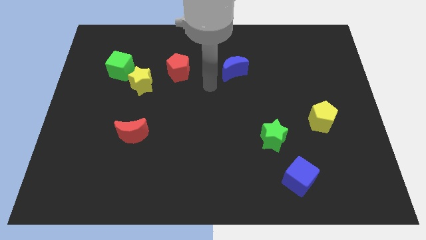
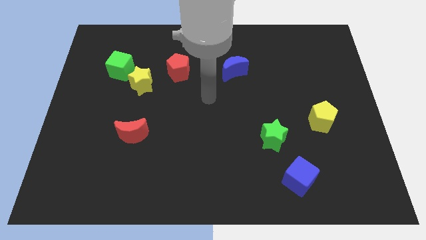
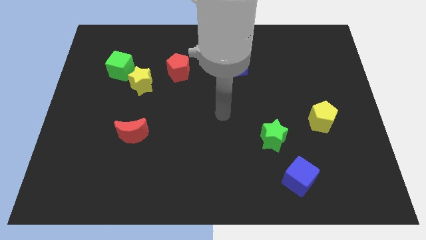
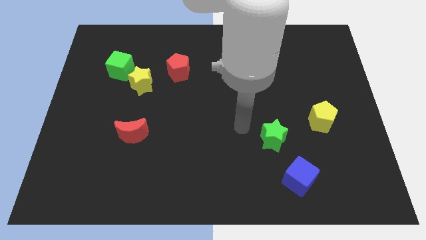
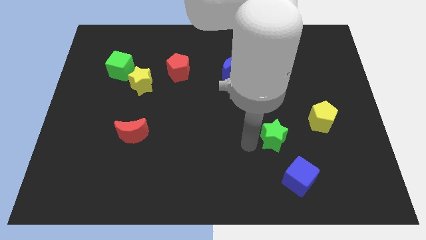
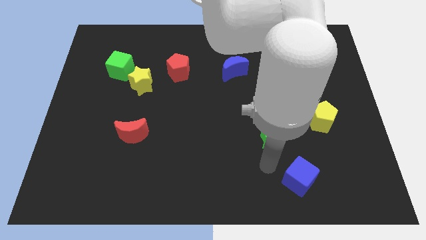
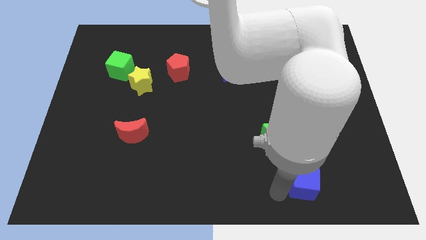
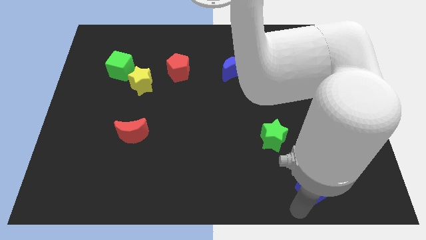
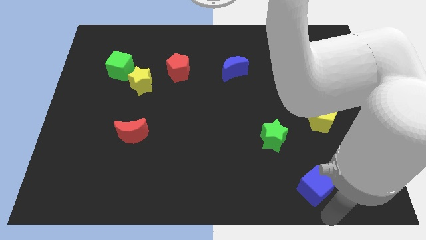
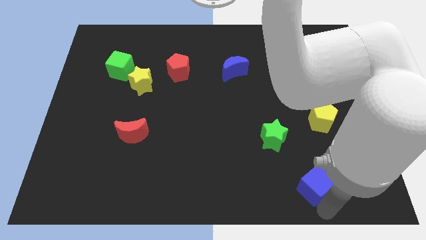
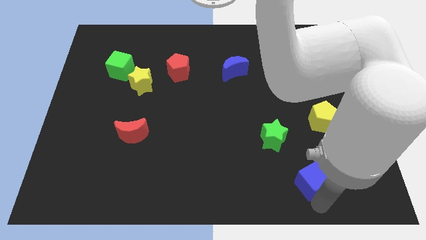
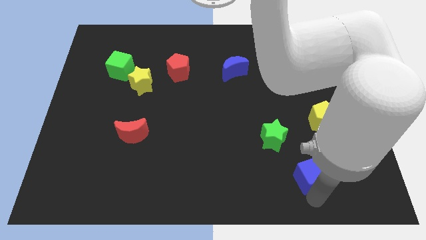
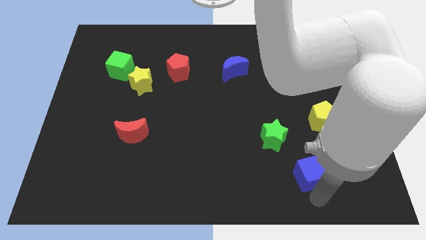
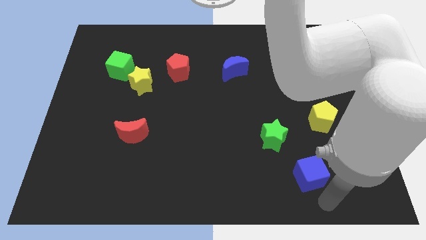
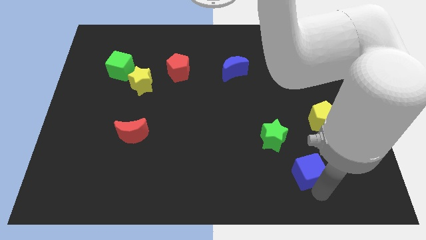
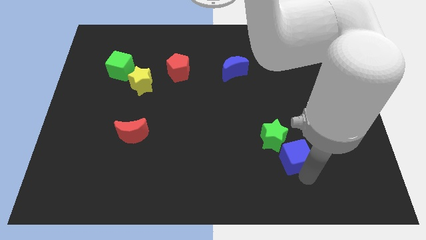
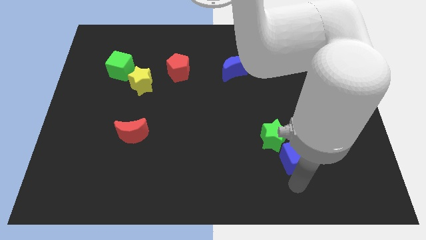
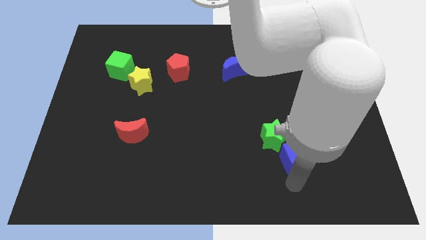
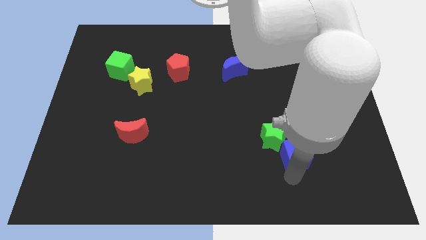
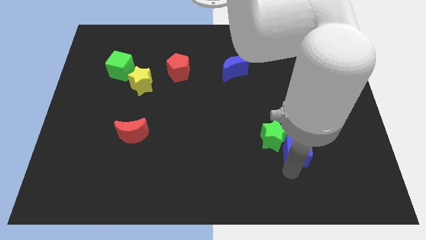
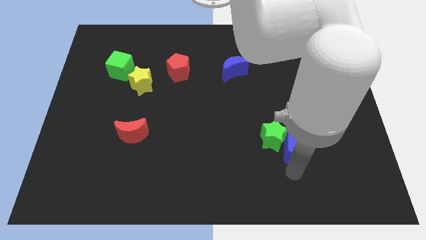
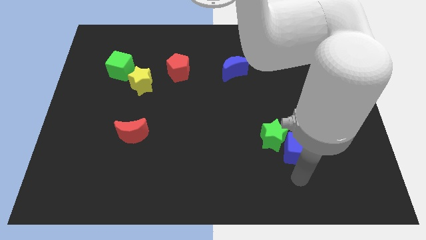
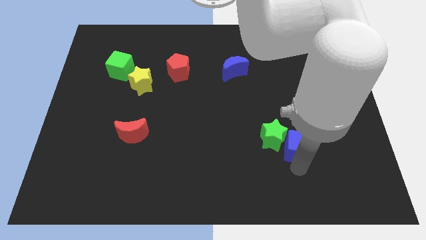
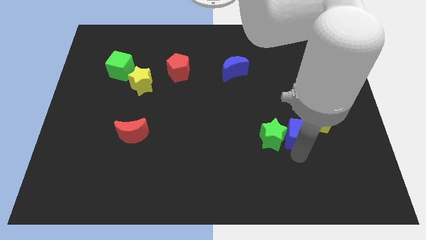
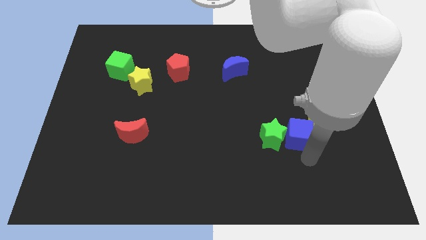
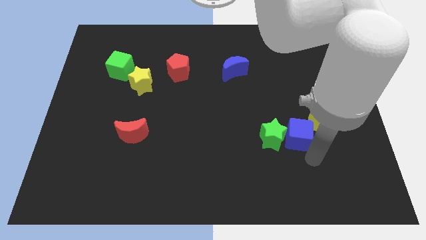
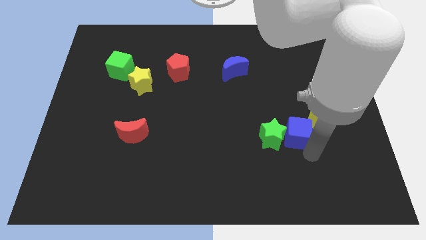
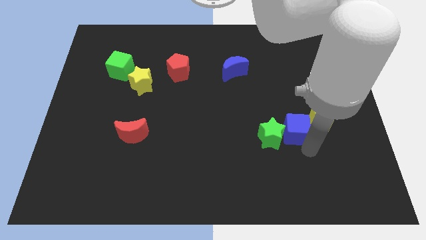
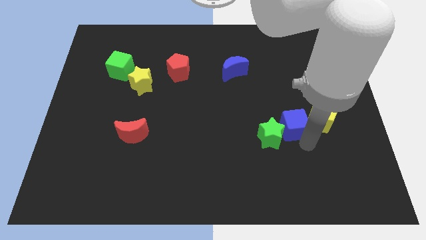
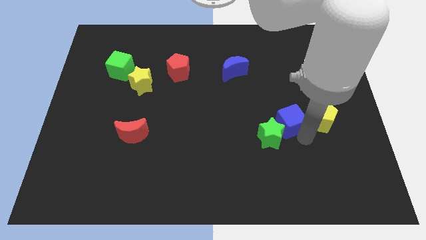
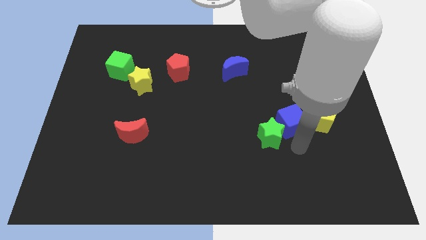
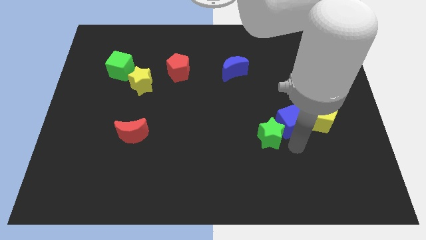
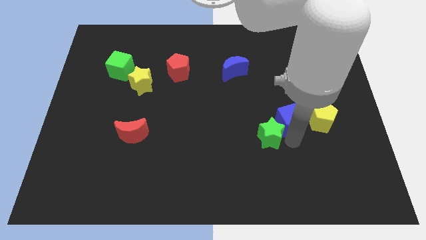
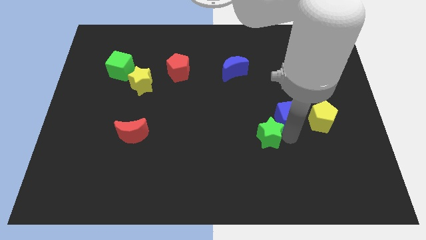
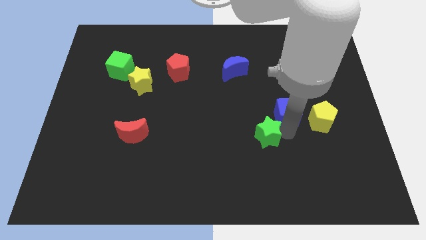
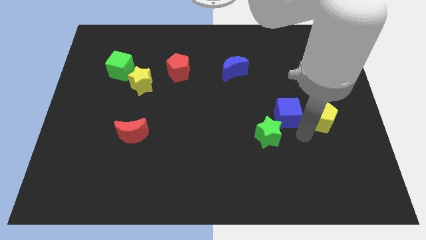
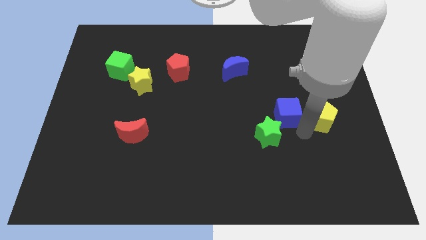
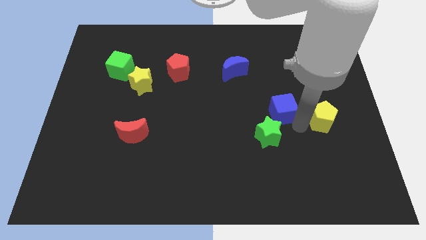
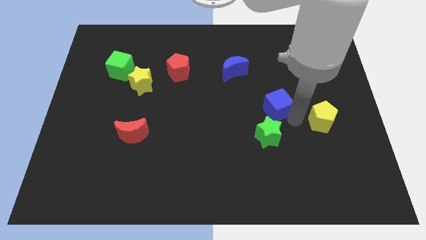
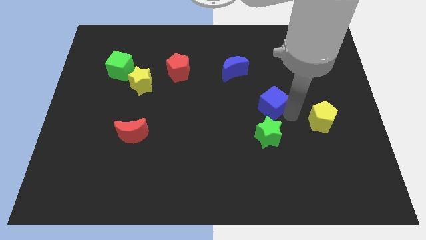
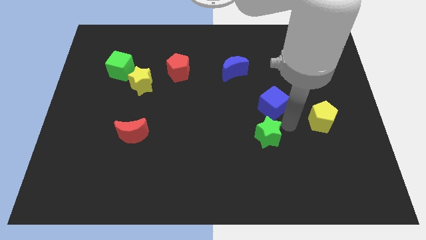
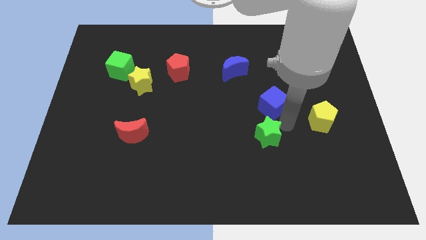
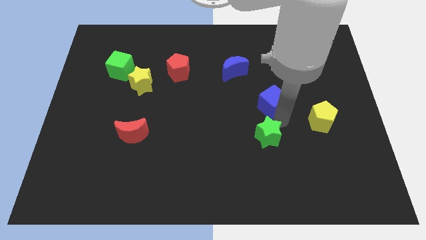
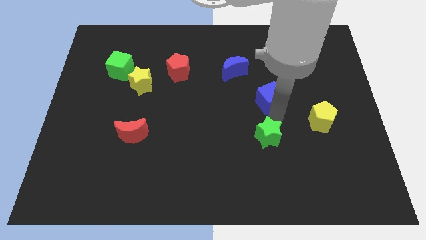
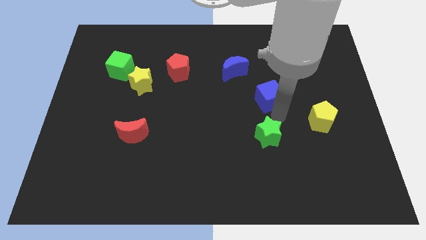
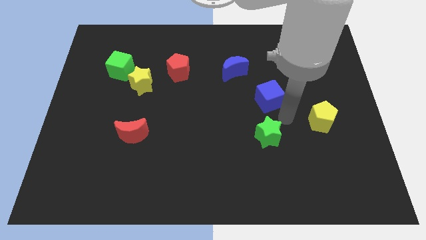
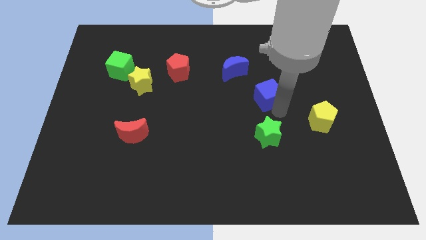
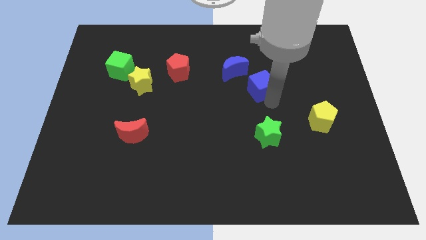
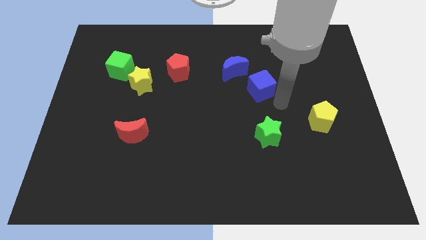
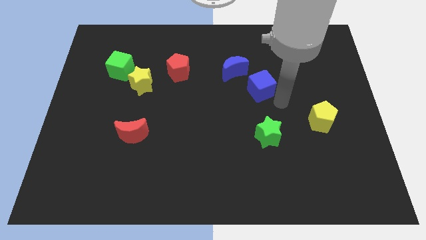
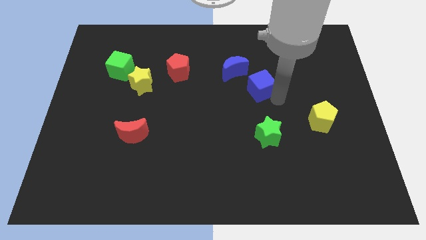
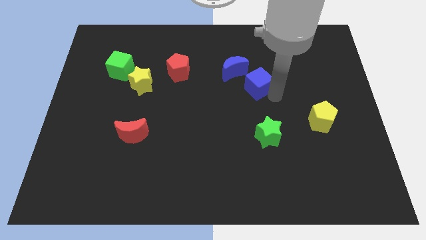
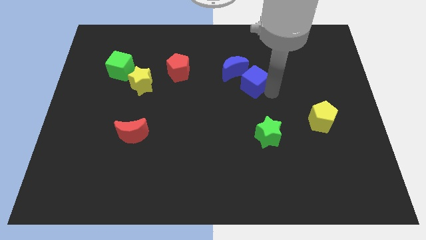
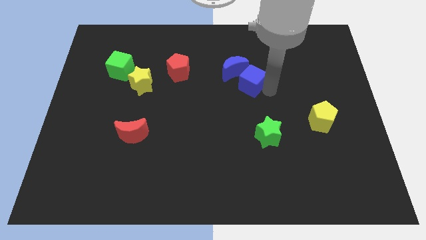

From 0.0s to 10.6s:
put the blue cube close to the blue moon

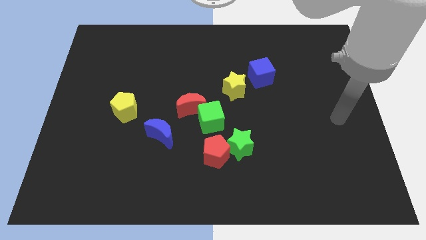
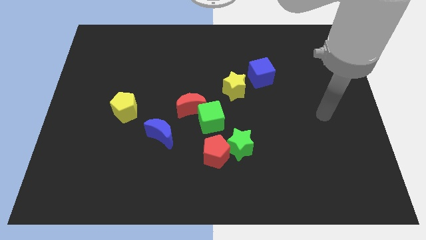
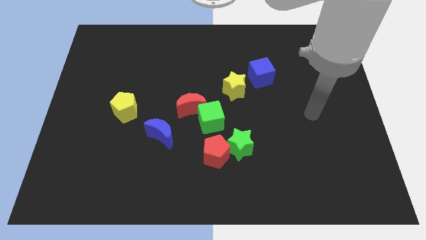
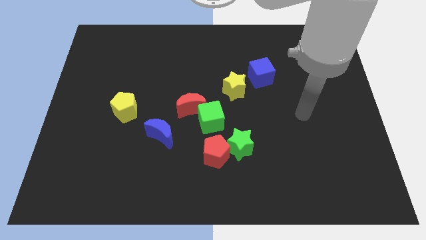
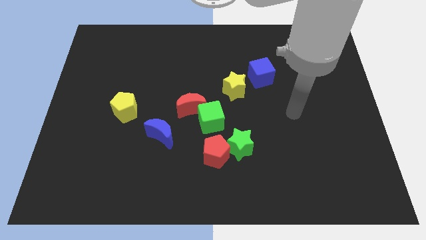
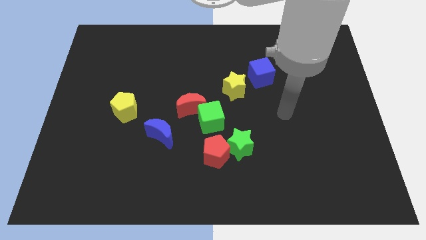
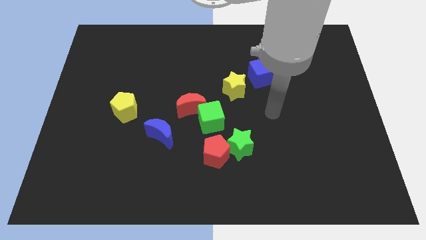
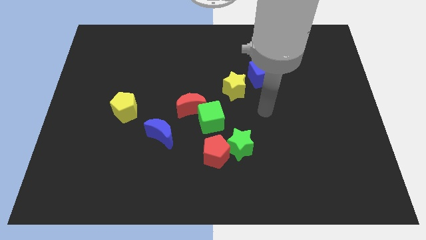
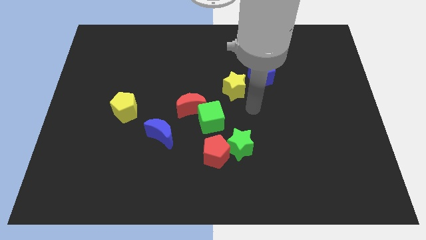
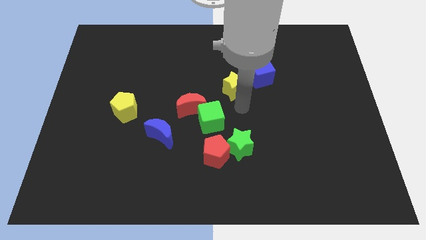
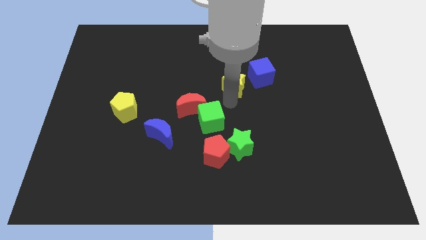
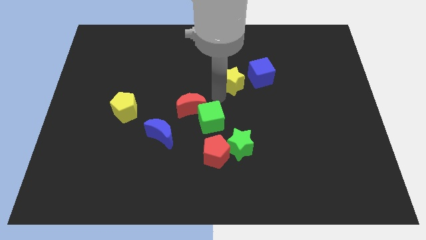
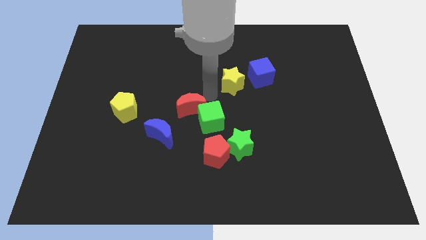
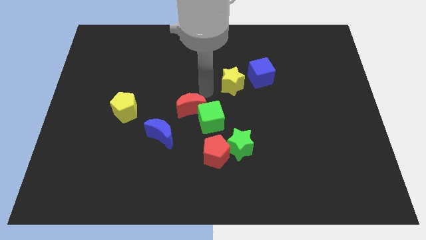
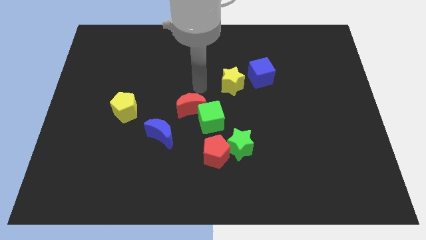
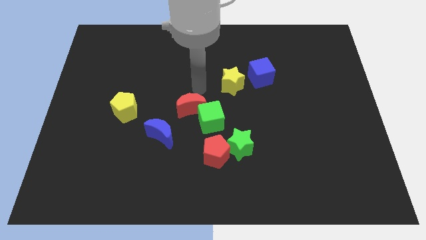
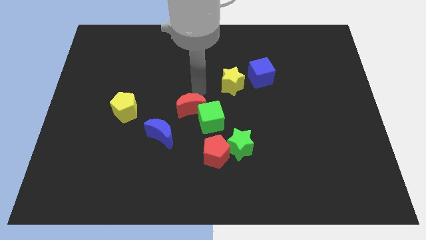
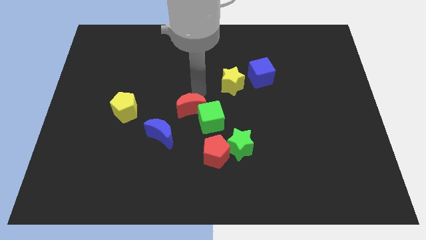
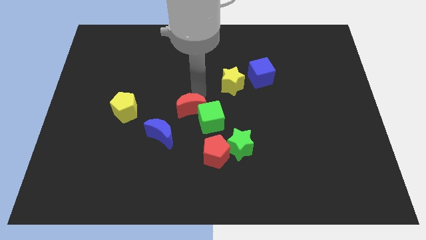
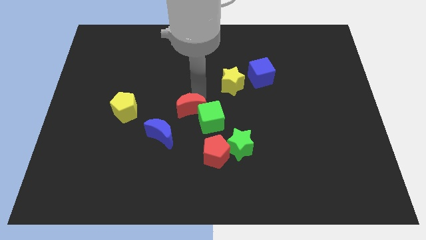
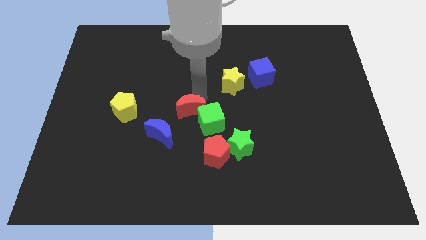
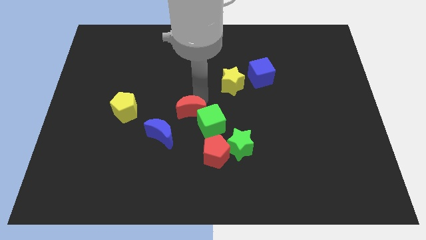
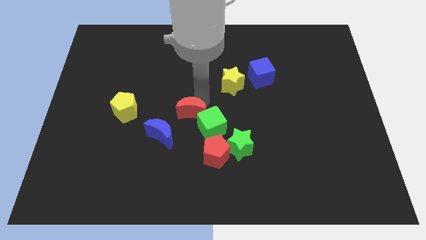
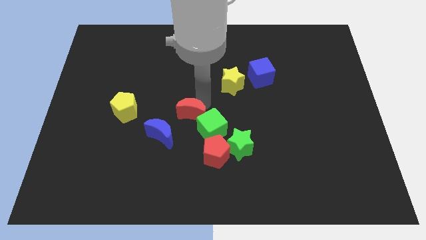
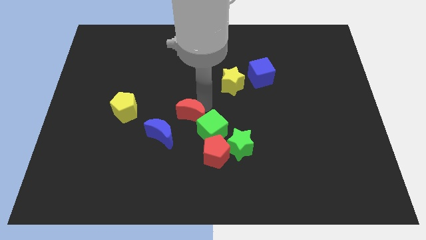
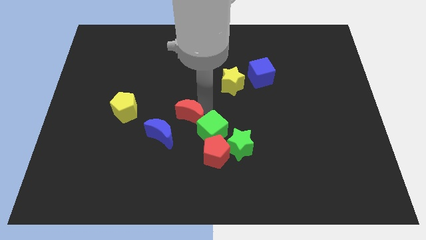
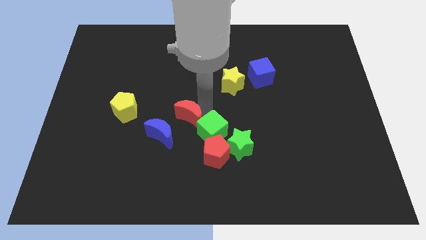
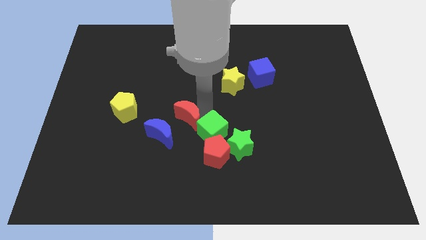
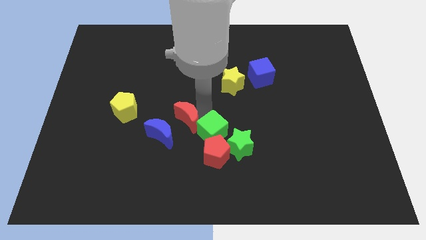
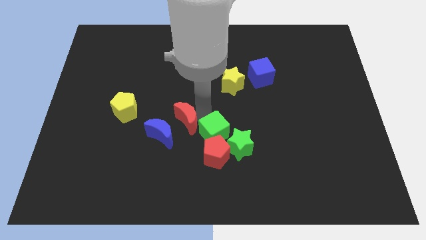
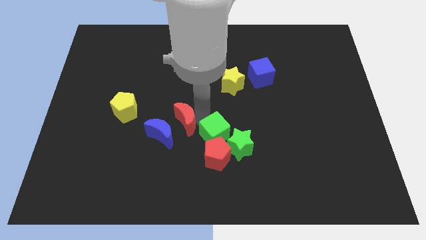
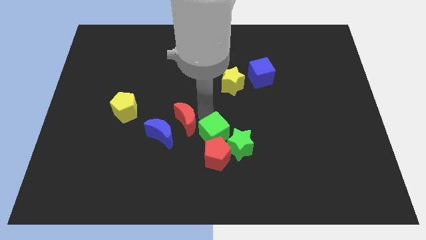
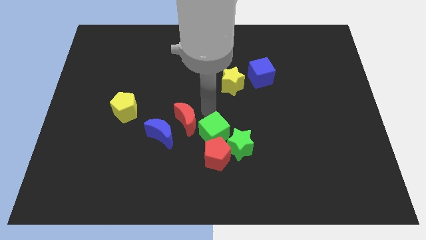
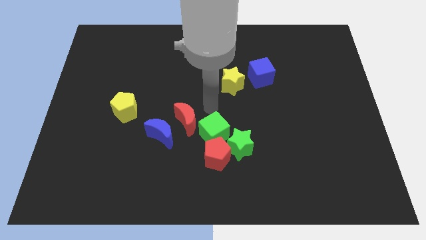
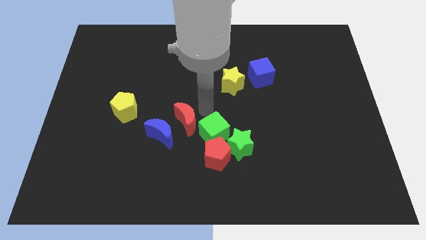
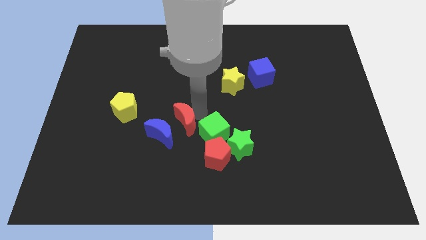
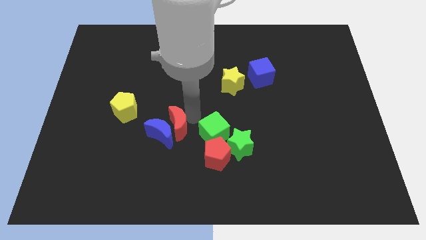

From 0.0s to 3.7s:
slide the red moon to the blue moon
